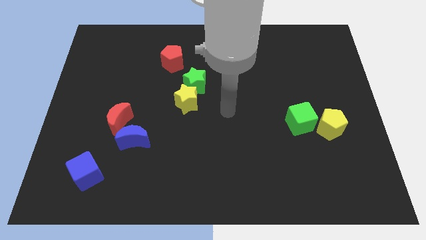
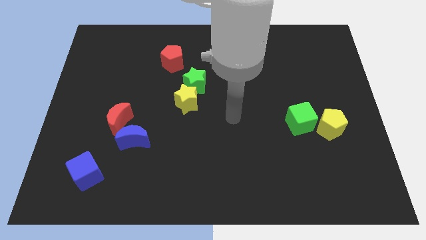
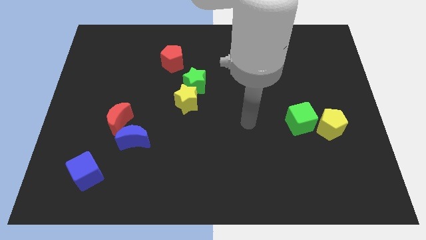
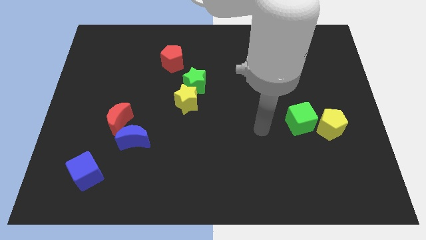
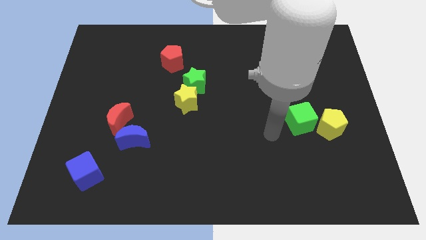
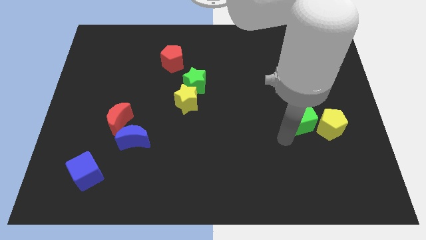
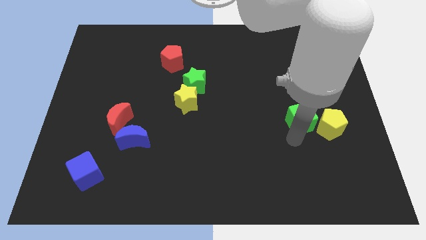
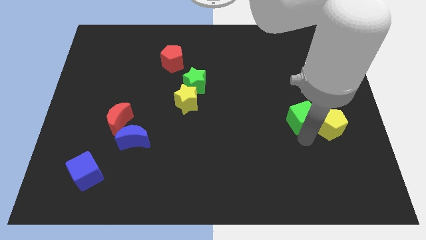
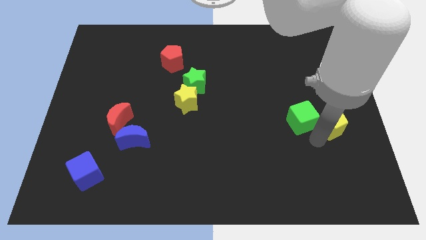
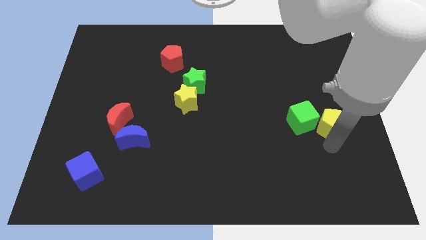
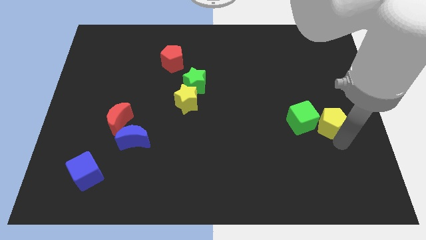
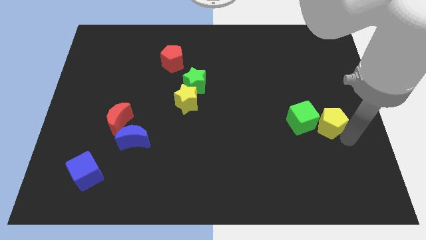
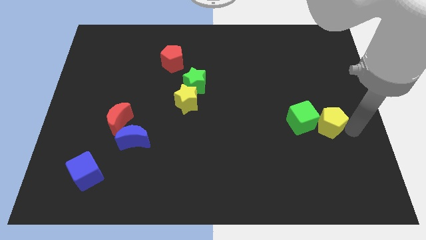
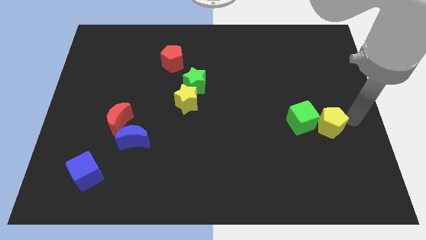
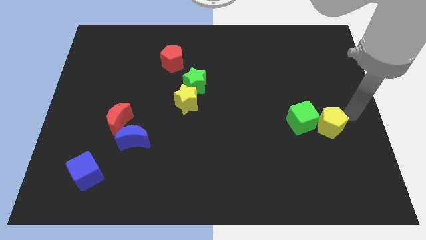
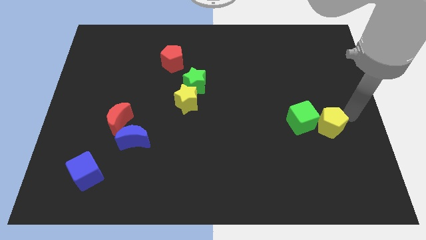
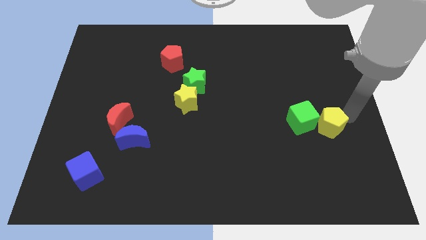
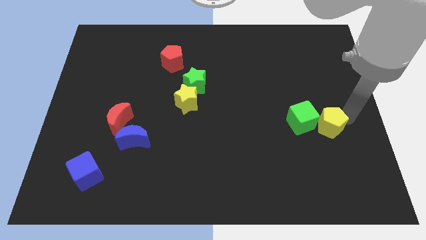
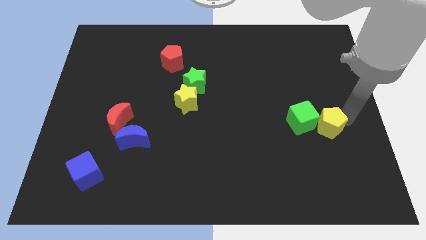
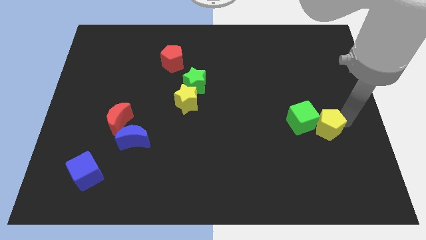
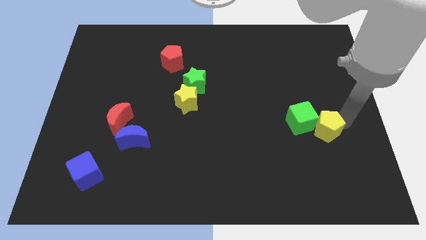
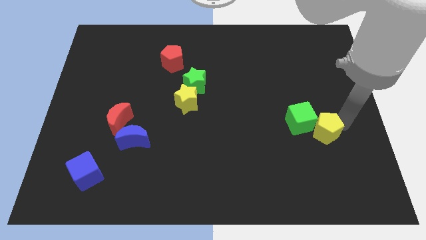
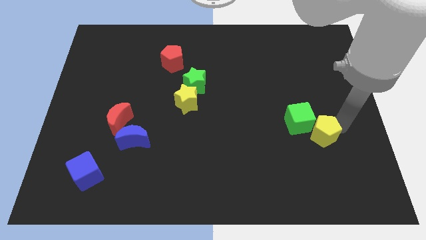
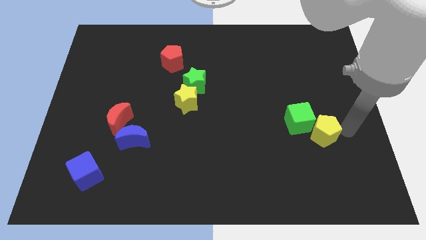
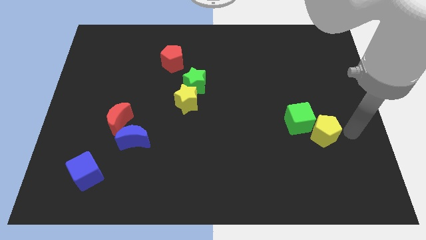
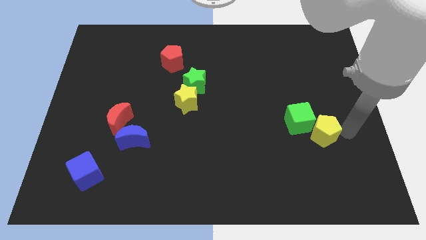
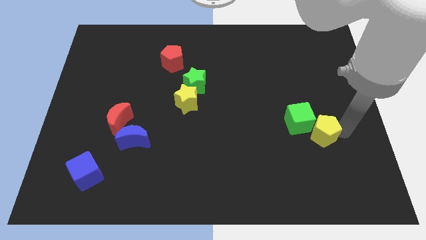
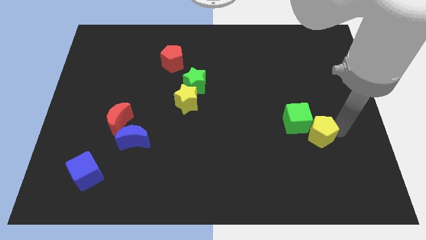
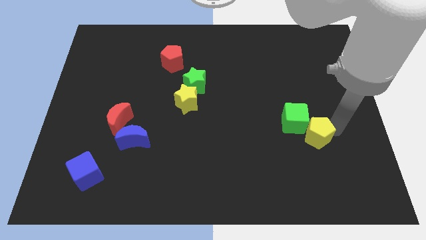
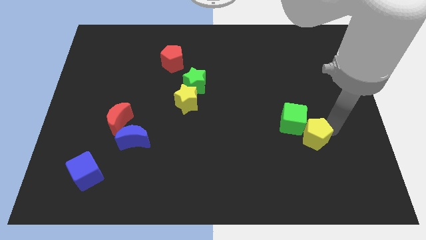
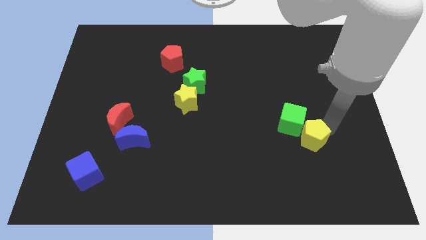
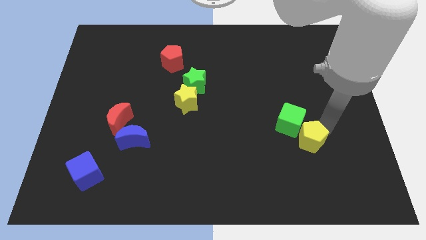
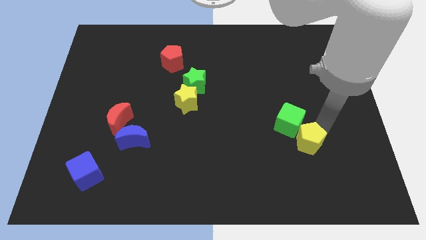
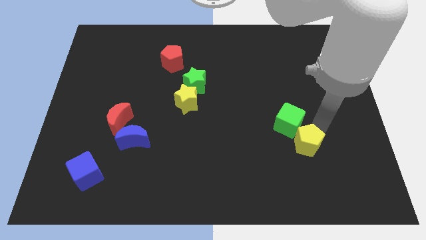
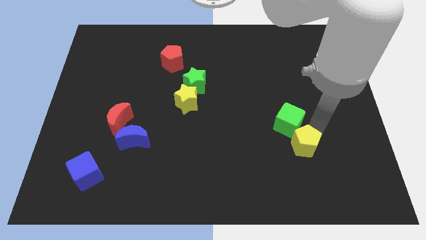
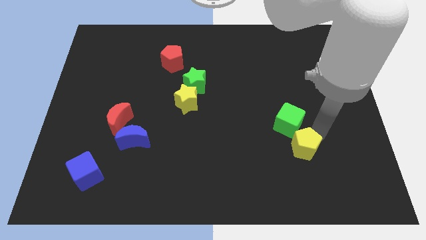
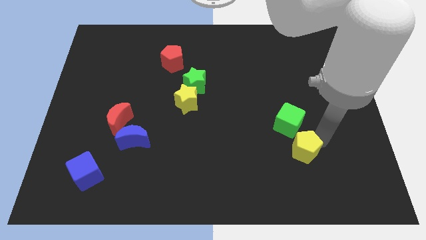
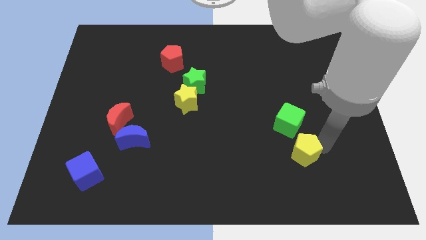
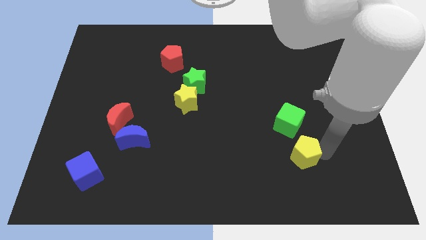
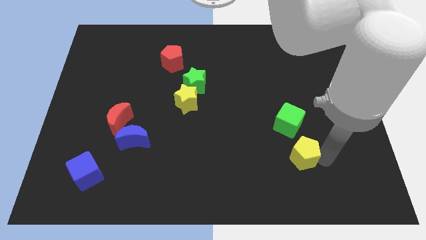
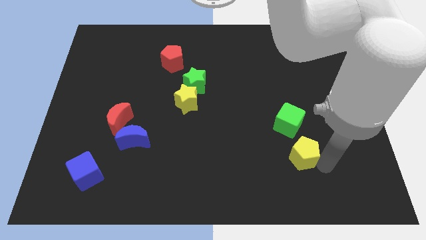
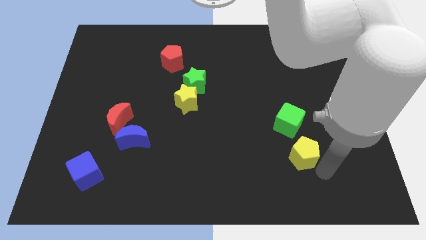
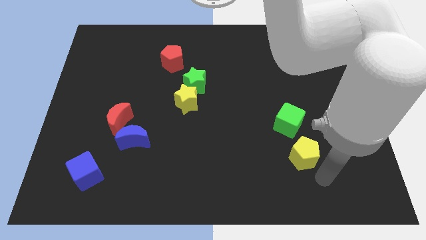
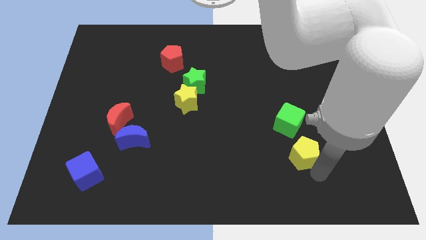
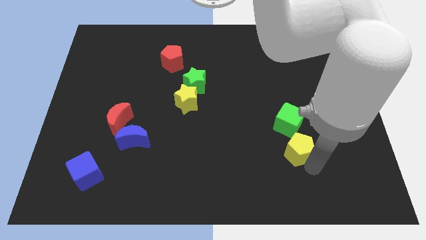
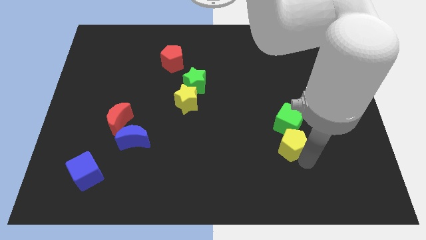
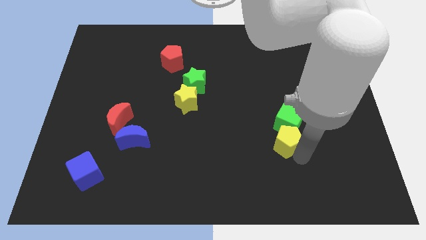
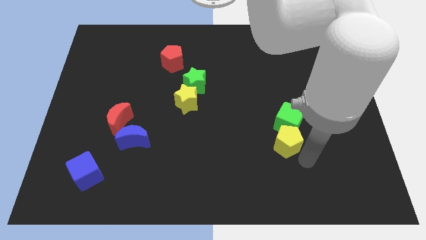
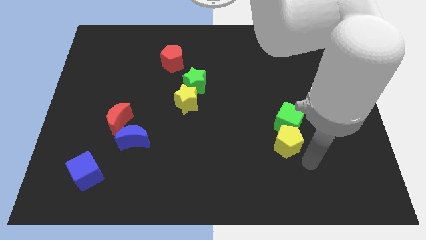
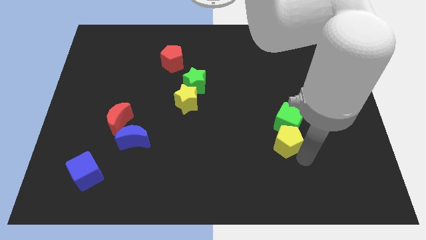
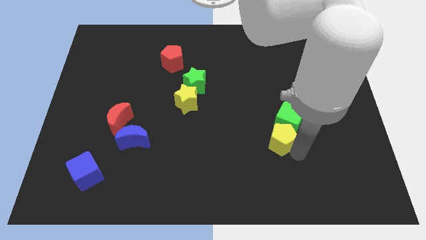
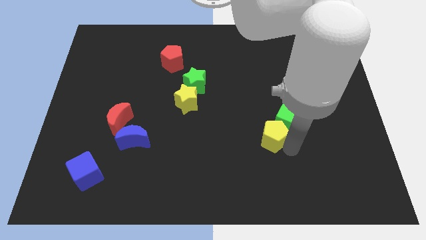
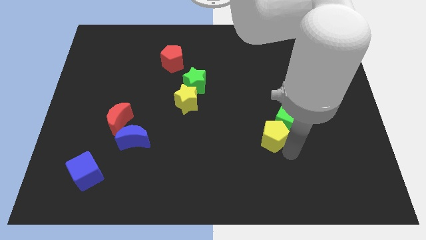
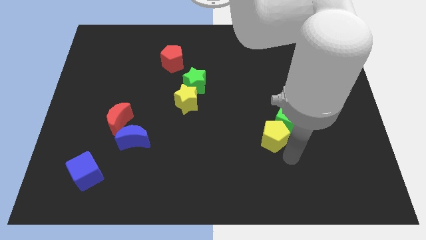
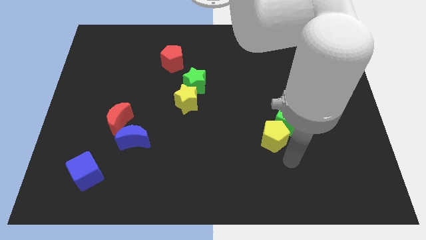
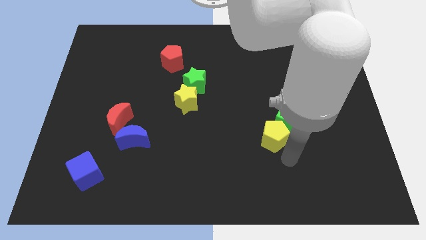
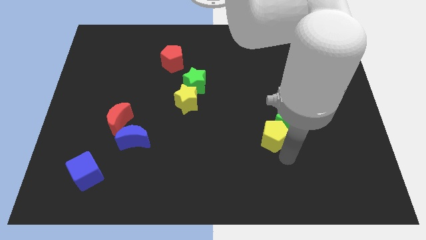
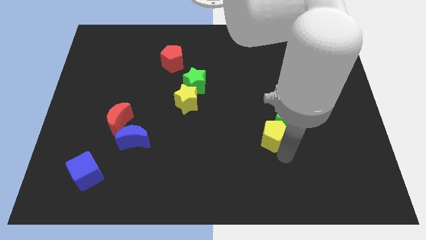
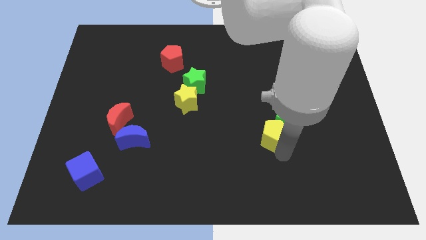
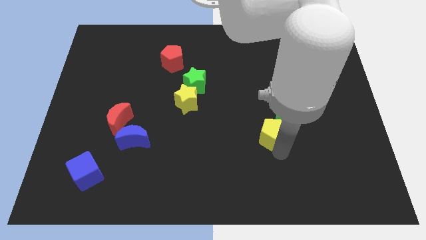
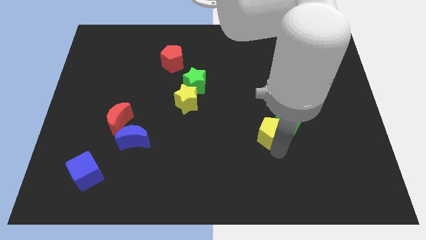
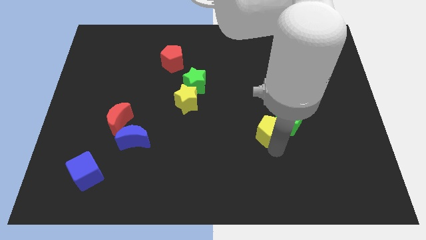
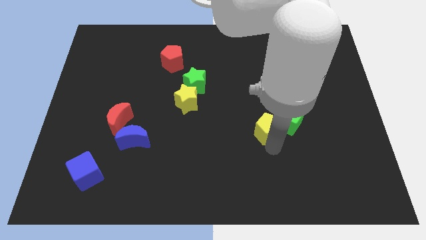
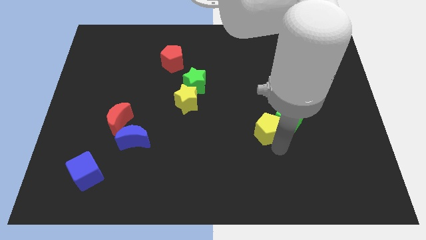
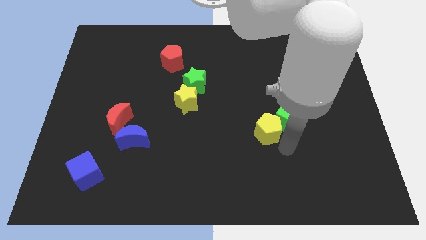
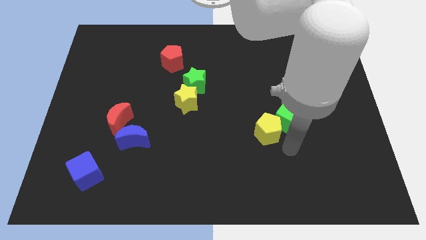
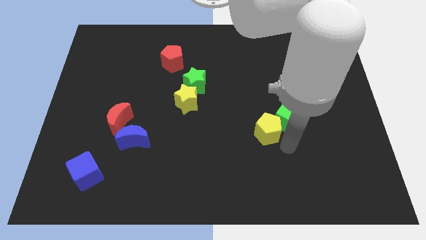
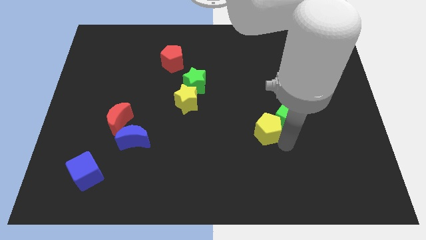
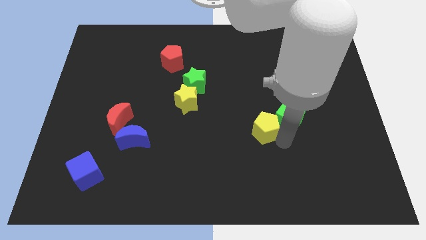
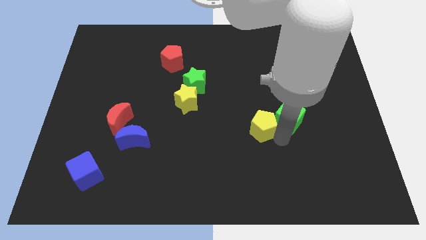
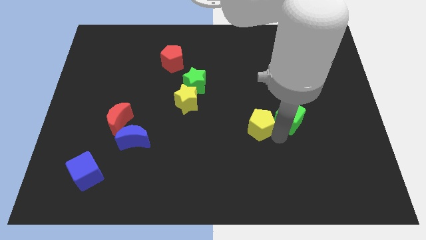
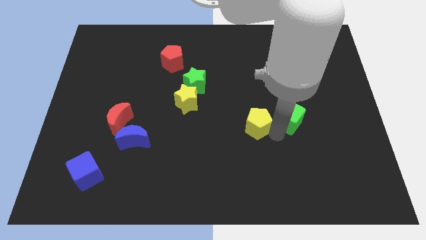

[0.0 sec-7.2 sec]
put the yellow pentagon to the middle
